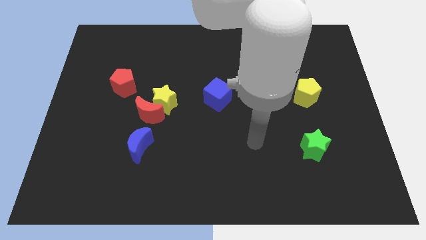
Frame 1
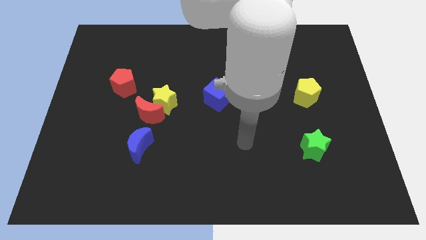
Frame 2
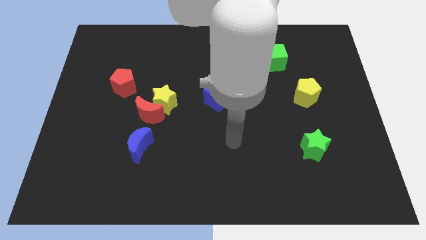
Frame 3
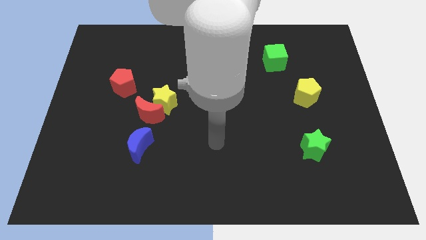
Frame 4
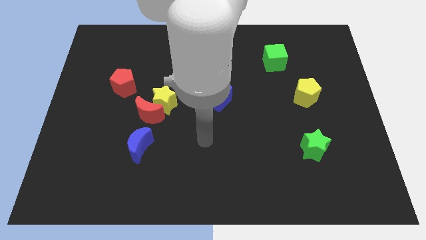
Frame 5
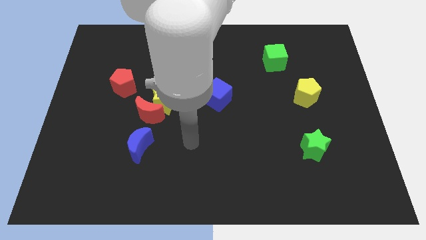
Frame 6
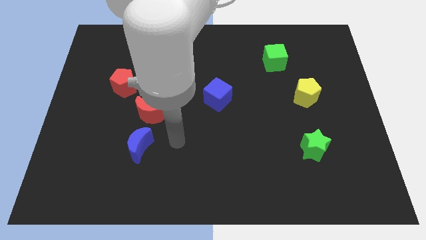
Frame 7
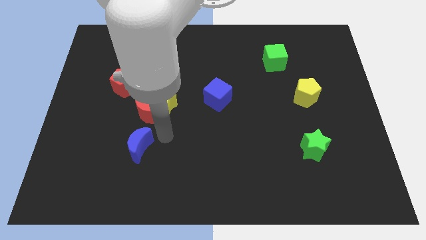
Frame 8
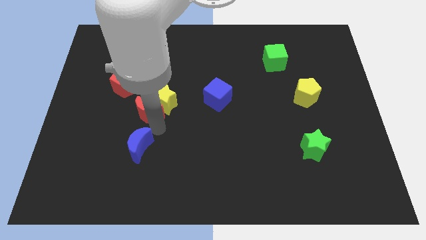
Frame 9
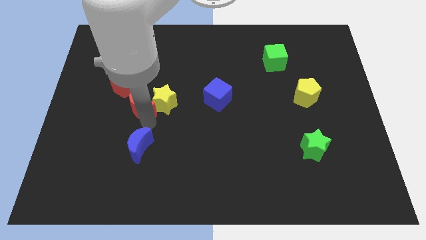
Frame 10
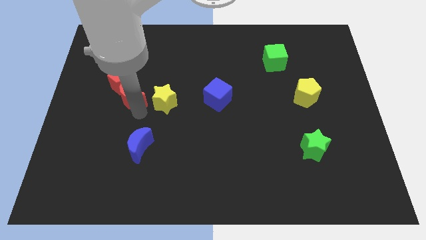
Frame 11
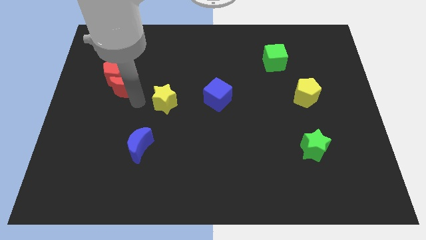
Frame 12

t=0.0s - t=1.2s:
separate the yellow star from the red moon

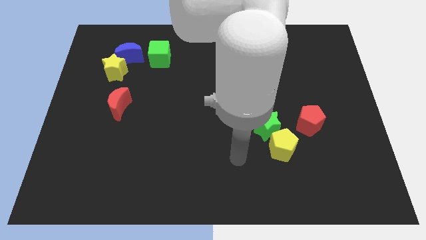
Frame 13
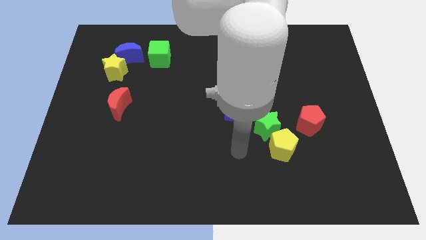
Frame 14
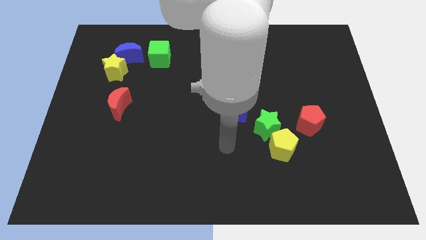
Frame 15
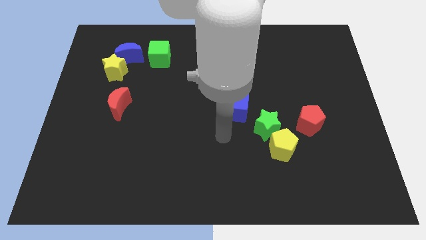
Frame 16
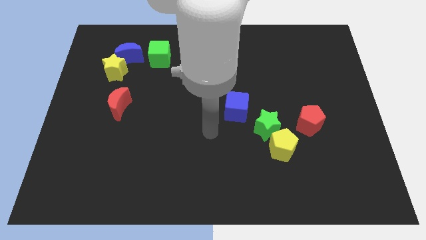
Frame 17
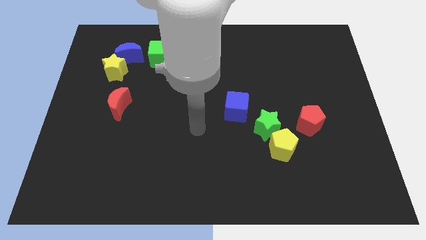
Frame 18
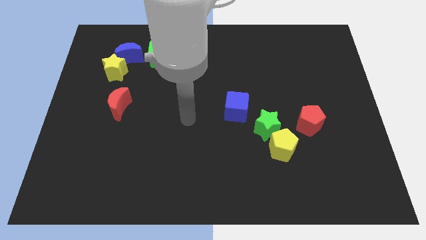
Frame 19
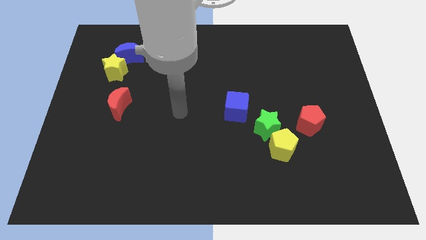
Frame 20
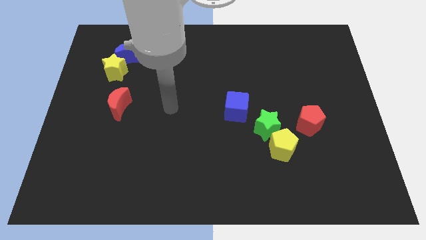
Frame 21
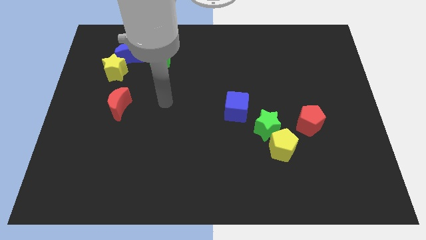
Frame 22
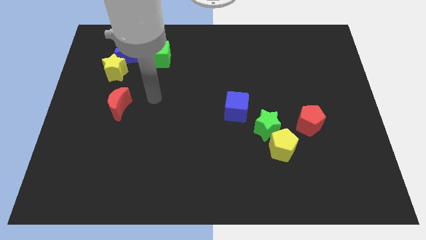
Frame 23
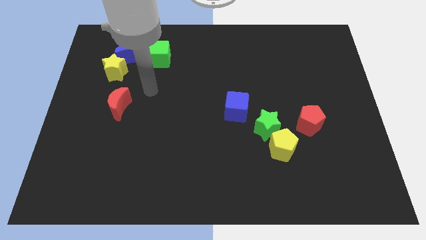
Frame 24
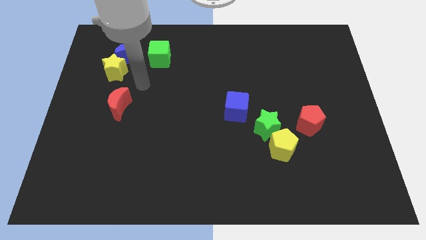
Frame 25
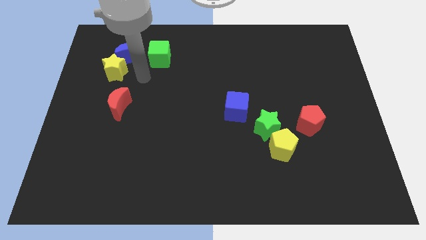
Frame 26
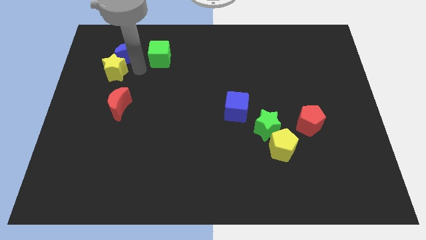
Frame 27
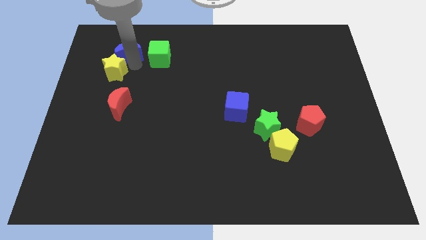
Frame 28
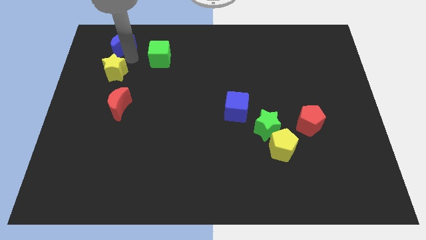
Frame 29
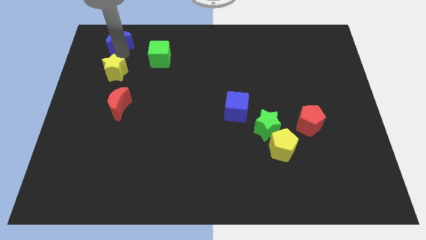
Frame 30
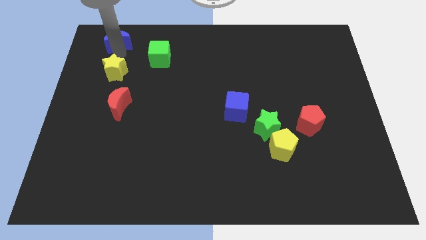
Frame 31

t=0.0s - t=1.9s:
move the yellow star away from the blue moon

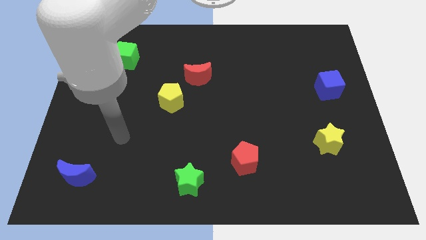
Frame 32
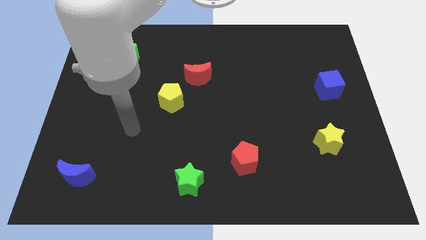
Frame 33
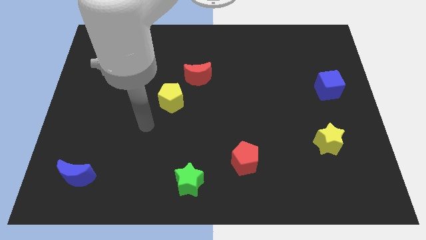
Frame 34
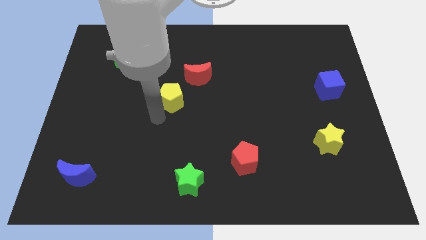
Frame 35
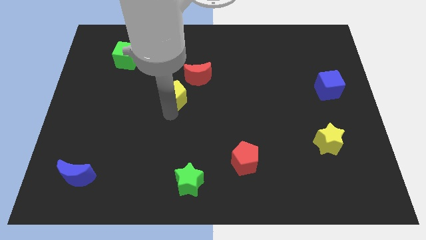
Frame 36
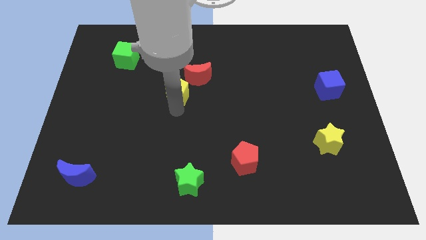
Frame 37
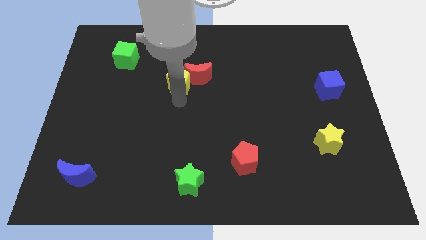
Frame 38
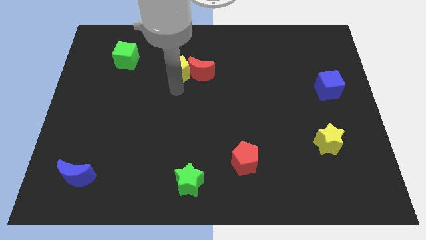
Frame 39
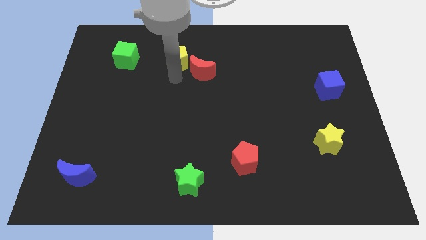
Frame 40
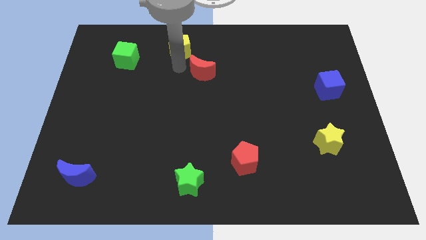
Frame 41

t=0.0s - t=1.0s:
pull the red moon apart from the yellow pentagon

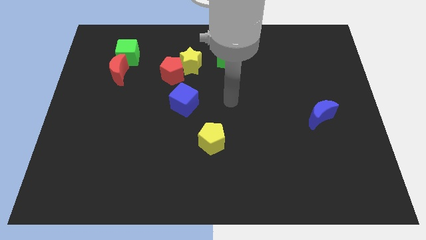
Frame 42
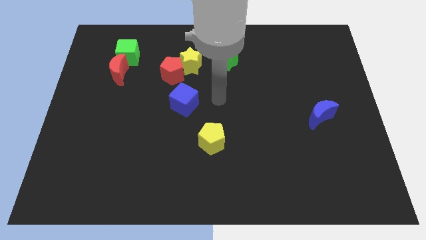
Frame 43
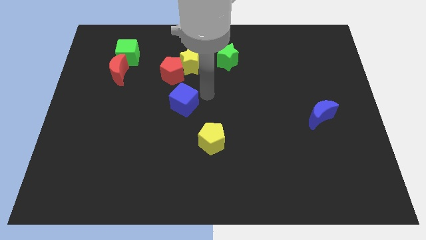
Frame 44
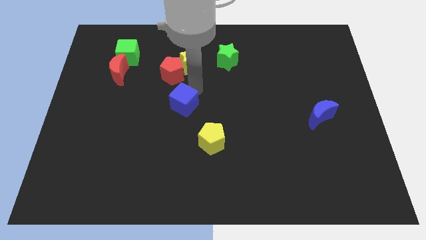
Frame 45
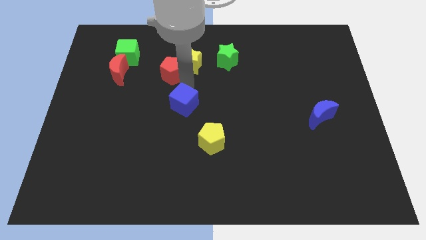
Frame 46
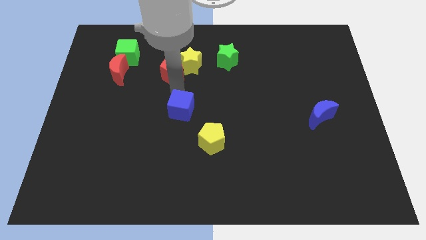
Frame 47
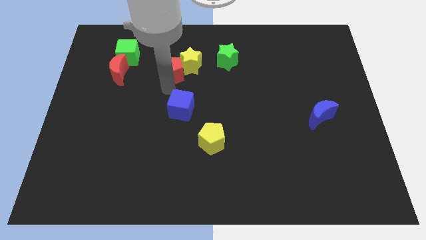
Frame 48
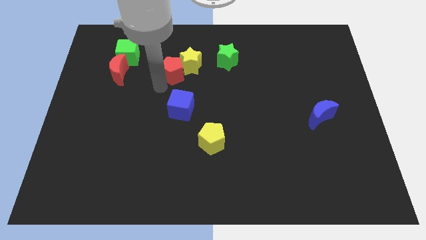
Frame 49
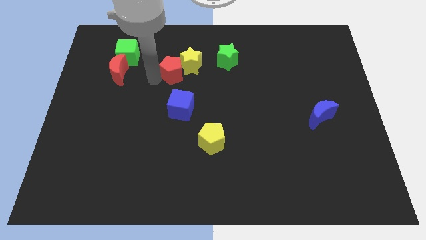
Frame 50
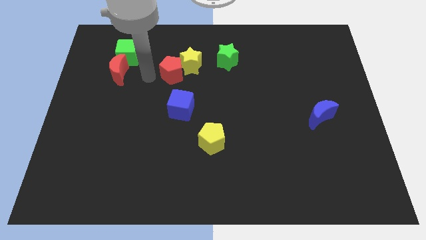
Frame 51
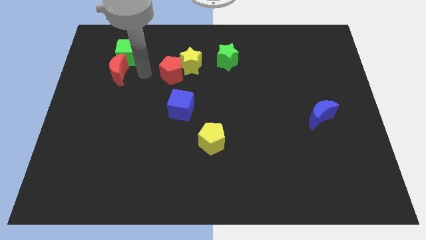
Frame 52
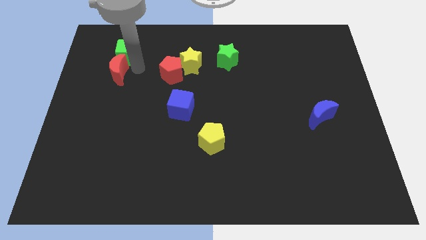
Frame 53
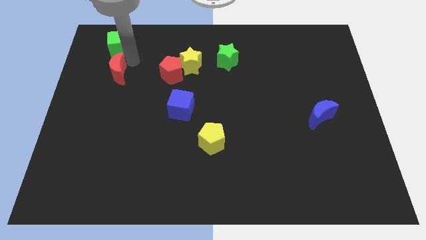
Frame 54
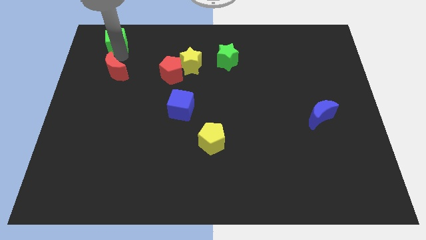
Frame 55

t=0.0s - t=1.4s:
move the red moon away from the green cube

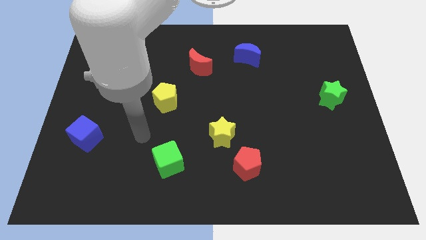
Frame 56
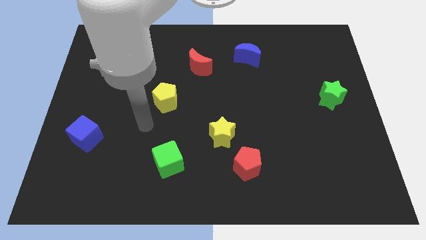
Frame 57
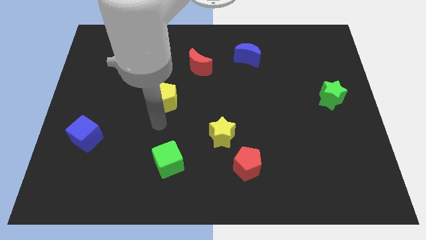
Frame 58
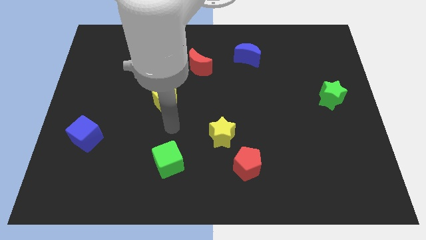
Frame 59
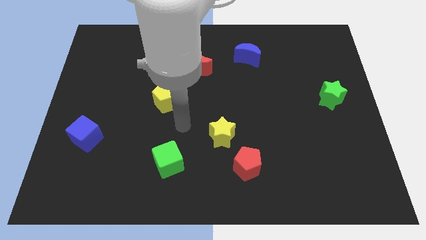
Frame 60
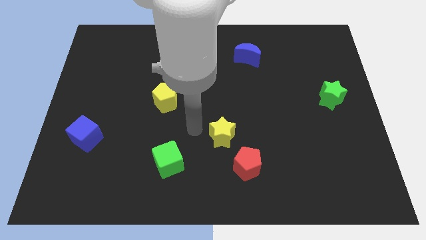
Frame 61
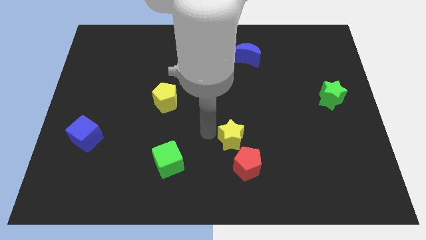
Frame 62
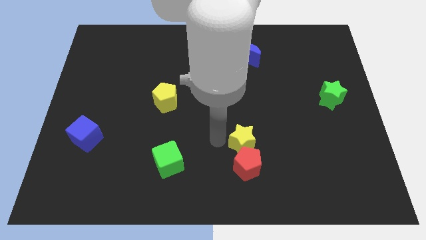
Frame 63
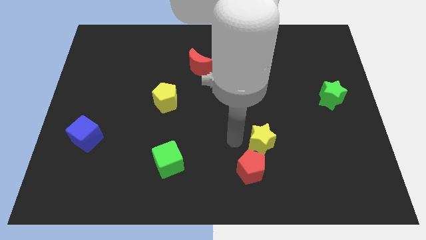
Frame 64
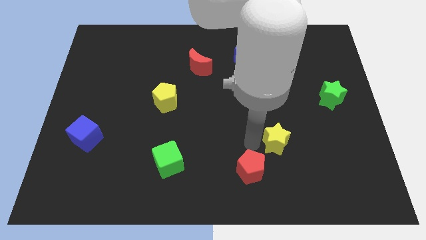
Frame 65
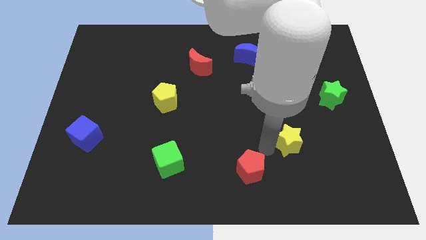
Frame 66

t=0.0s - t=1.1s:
pull the red pentagon apart from the yellow star

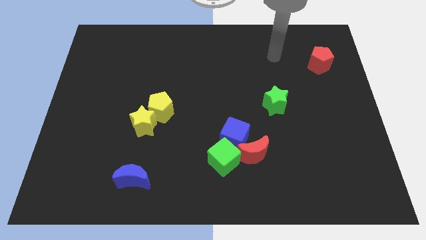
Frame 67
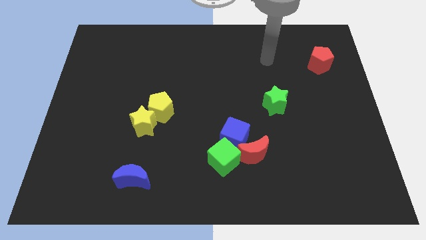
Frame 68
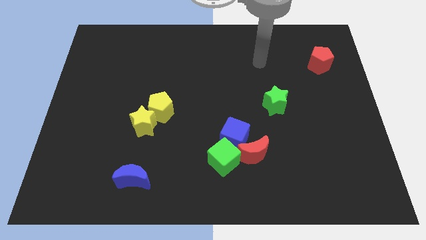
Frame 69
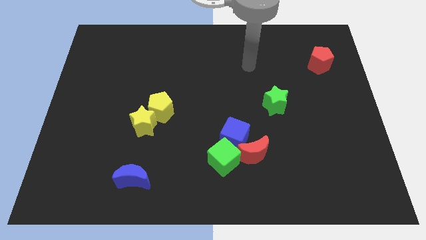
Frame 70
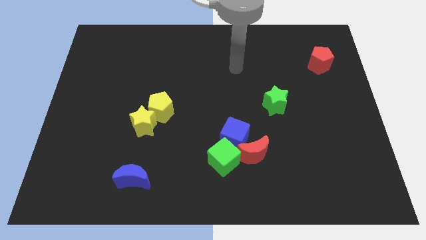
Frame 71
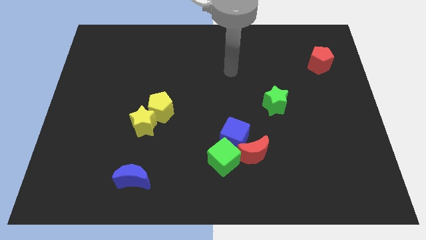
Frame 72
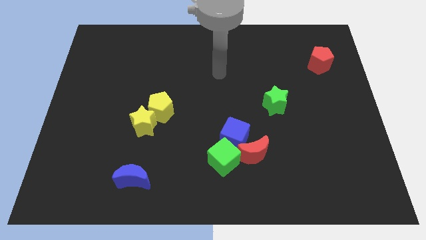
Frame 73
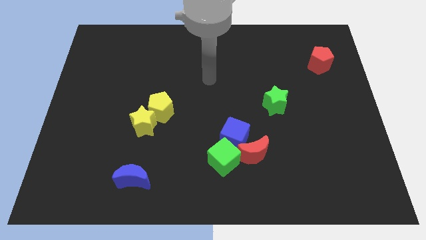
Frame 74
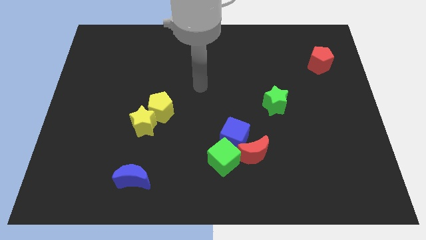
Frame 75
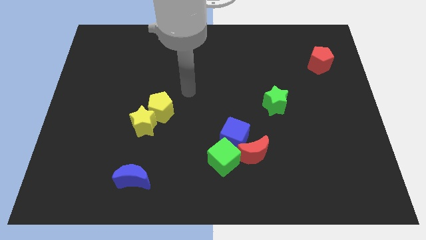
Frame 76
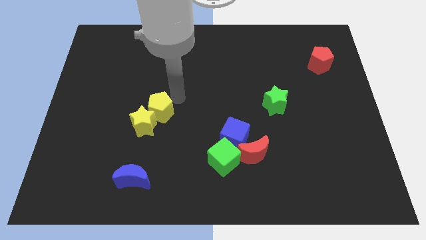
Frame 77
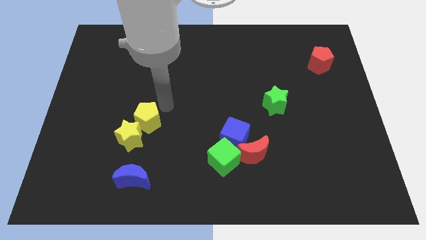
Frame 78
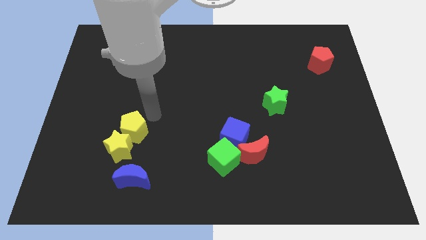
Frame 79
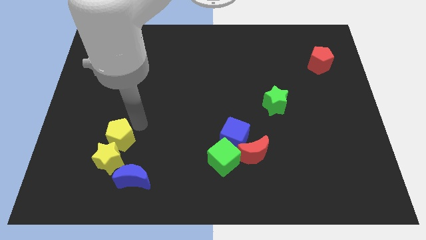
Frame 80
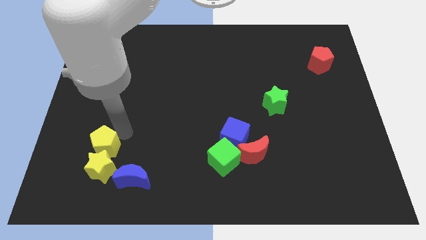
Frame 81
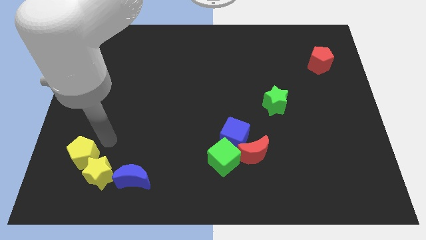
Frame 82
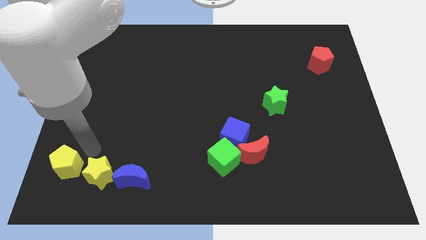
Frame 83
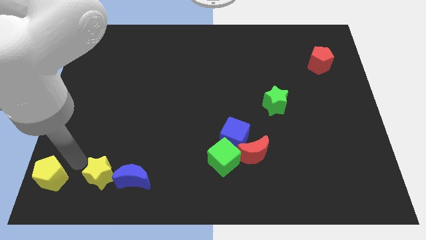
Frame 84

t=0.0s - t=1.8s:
move the yellow star away from the yellow pentagon

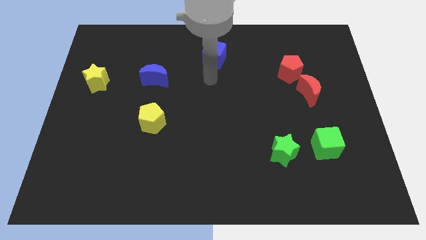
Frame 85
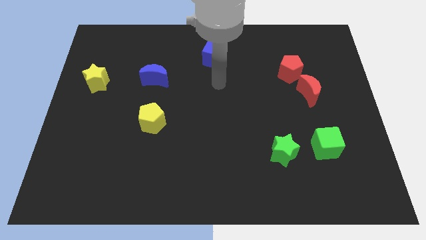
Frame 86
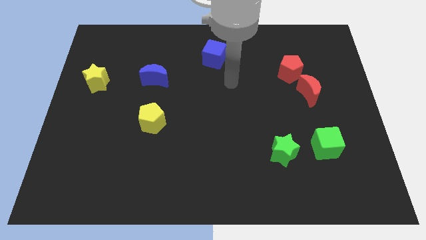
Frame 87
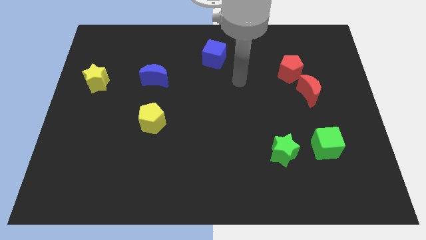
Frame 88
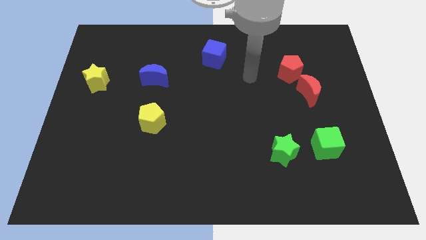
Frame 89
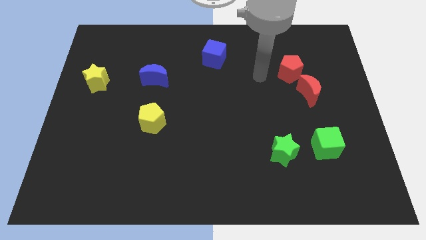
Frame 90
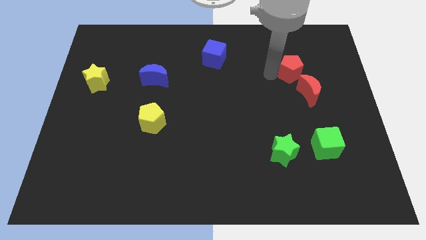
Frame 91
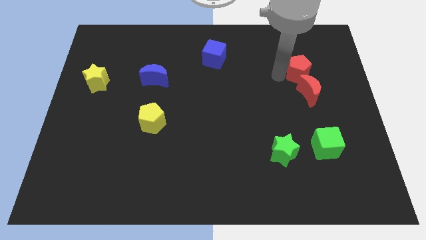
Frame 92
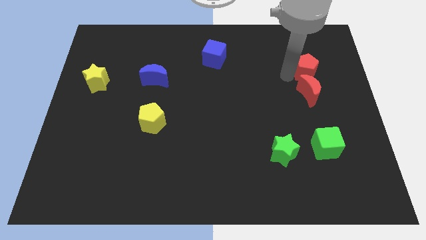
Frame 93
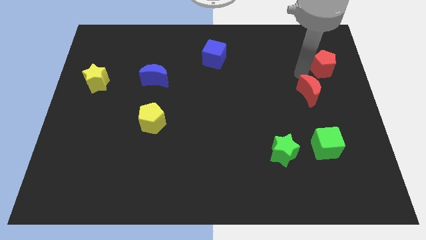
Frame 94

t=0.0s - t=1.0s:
move the red moon away from the red pentagon
